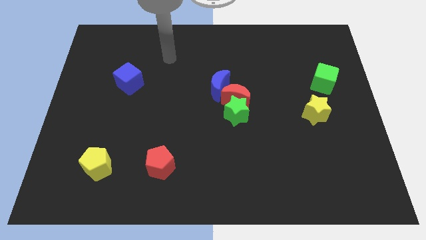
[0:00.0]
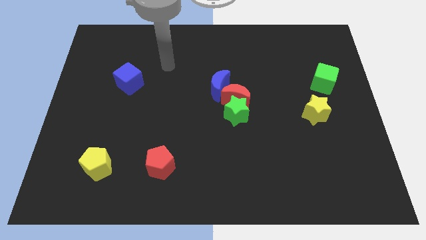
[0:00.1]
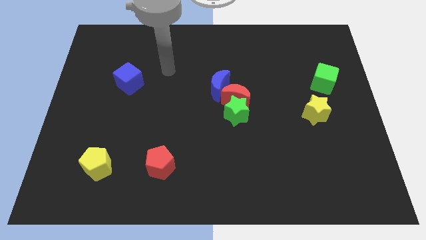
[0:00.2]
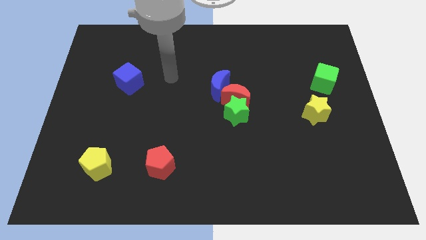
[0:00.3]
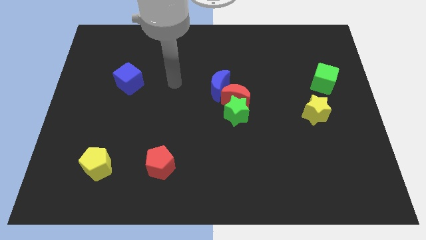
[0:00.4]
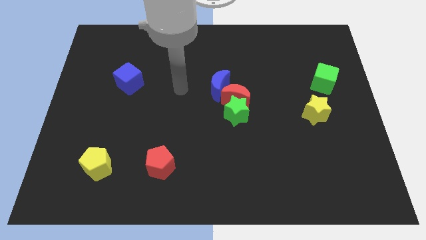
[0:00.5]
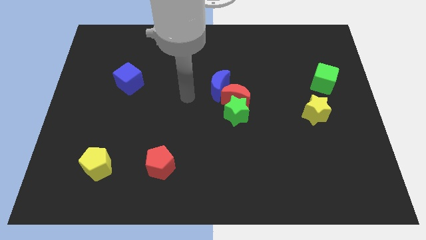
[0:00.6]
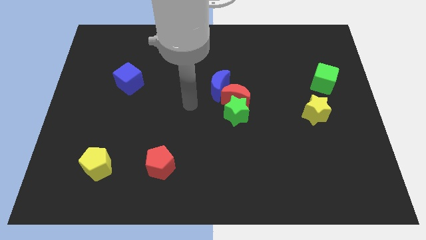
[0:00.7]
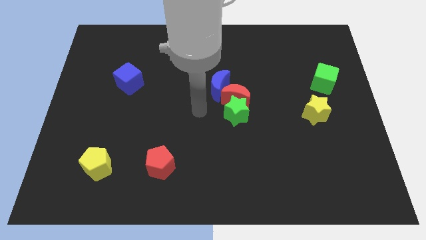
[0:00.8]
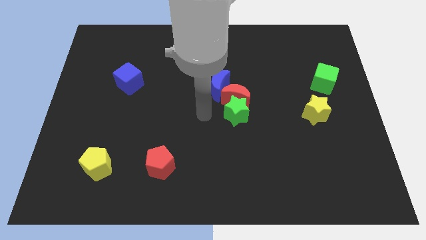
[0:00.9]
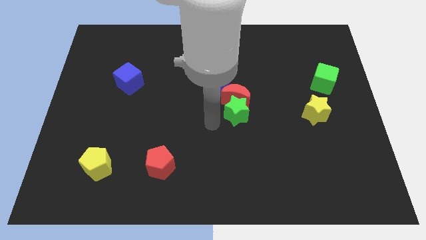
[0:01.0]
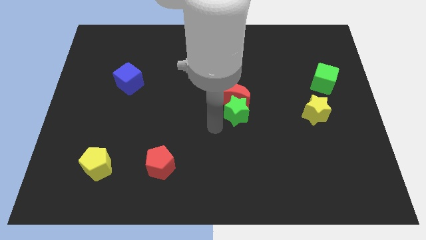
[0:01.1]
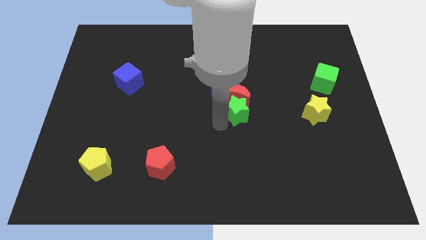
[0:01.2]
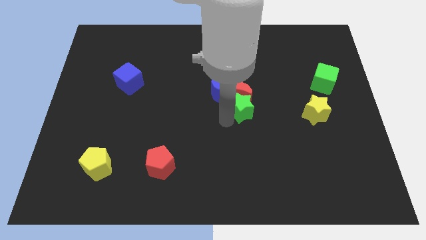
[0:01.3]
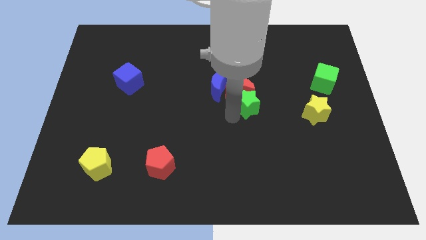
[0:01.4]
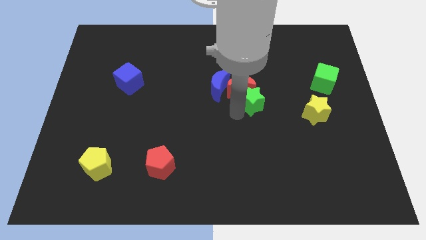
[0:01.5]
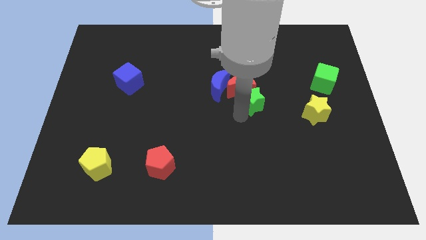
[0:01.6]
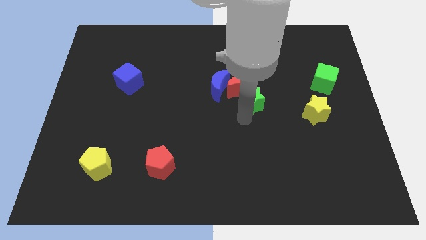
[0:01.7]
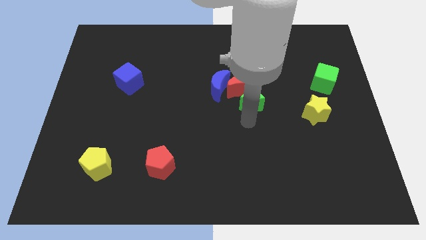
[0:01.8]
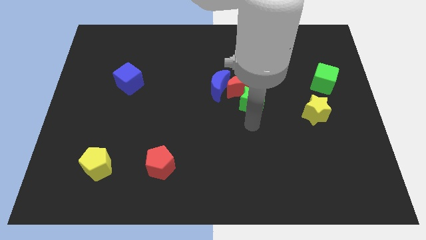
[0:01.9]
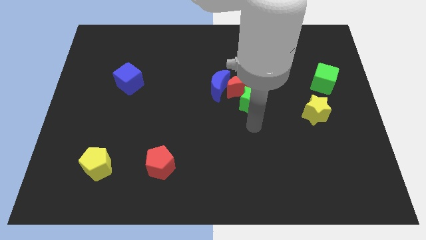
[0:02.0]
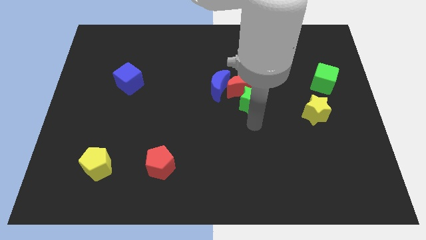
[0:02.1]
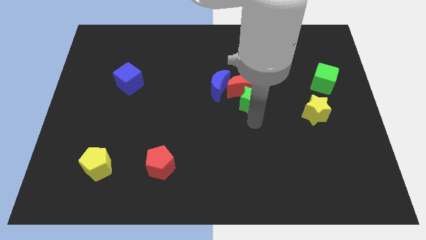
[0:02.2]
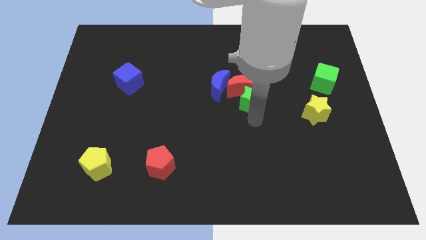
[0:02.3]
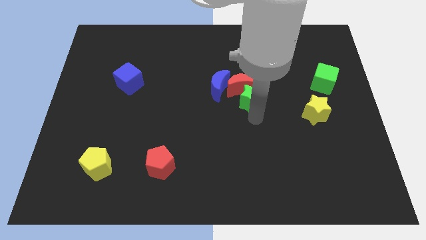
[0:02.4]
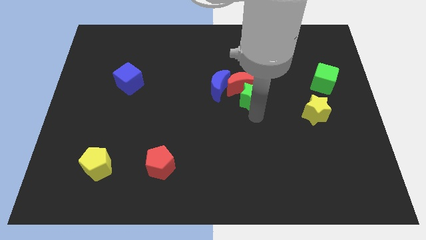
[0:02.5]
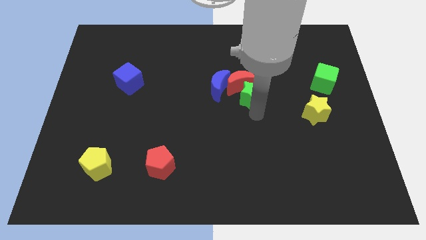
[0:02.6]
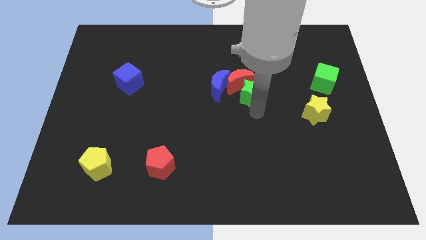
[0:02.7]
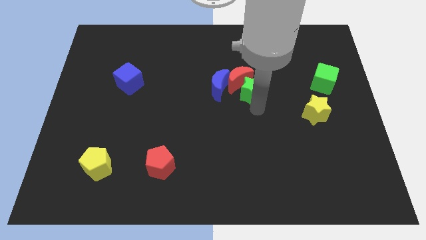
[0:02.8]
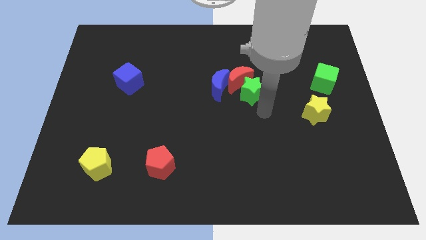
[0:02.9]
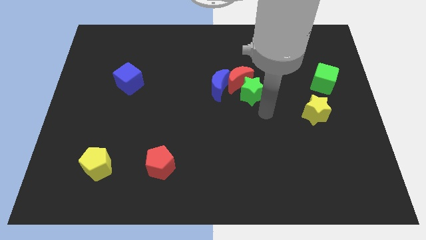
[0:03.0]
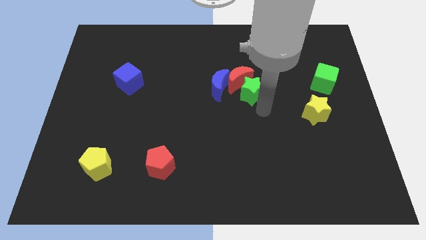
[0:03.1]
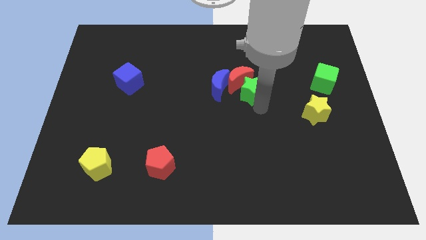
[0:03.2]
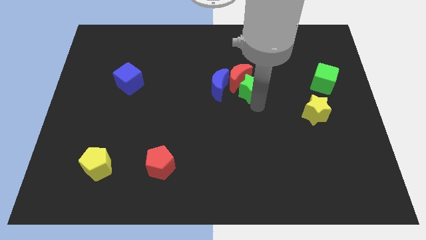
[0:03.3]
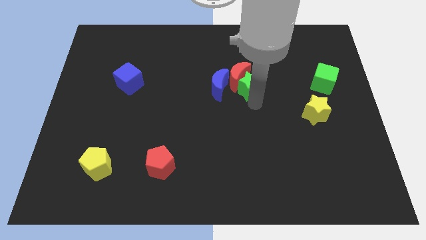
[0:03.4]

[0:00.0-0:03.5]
slide the green star a little bit up

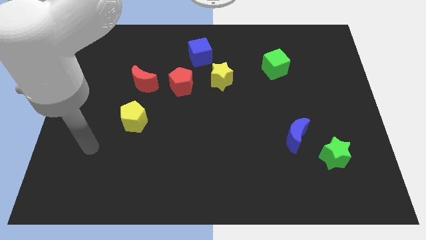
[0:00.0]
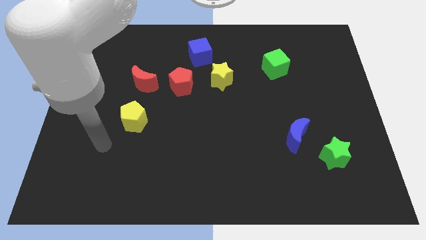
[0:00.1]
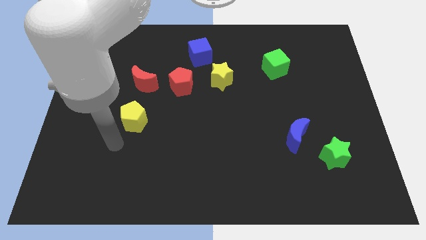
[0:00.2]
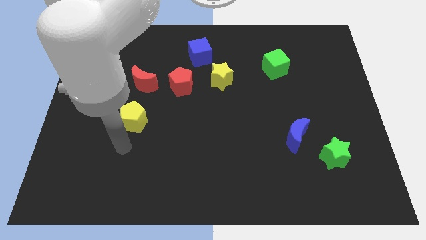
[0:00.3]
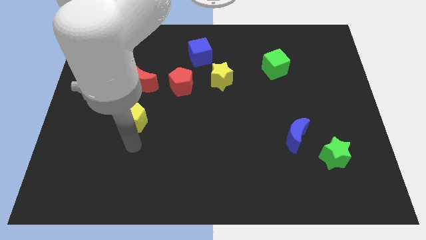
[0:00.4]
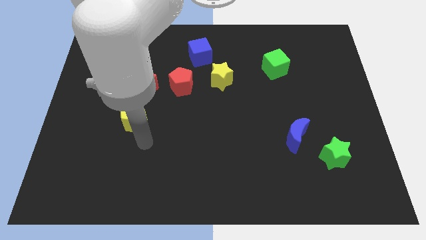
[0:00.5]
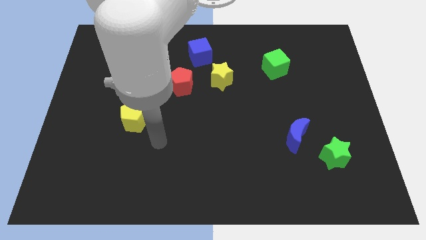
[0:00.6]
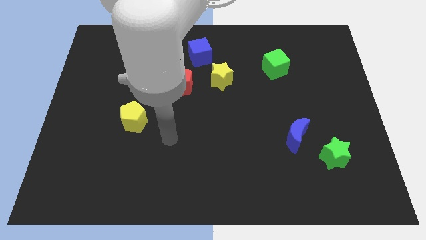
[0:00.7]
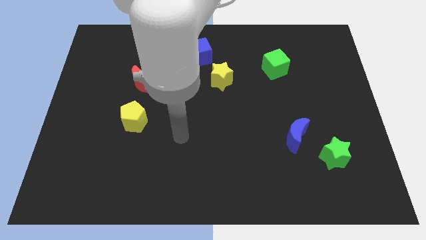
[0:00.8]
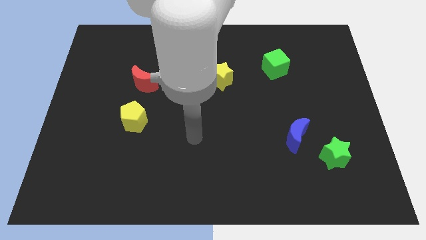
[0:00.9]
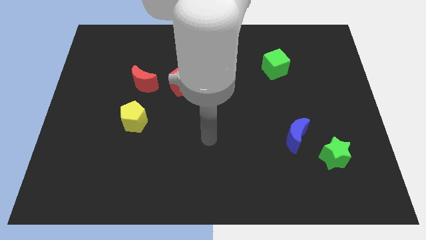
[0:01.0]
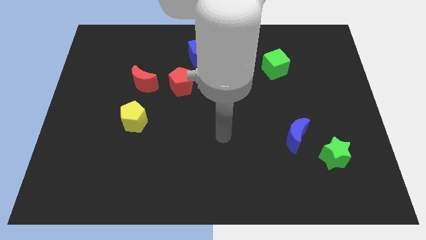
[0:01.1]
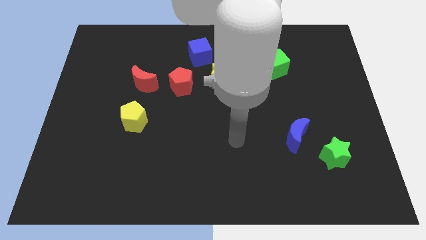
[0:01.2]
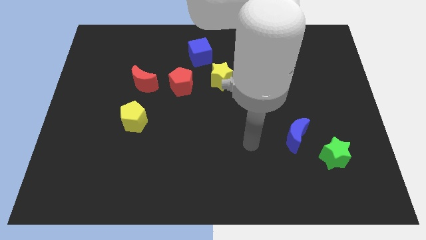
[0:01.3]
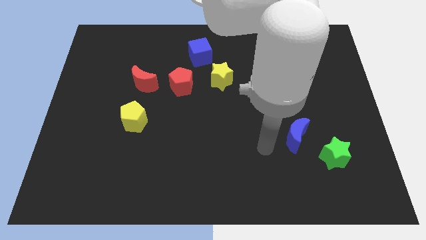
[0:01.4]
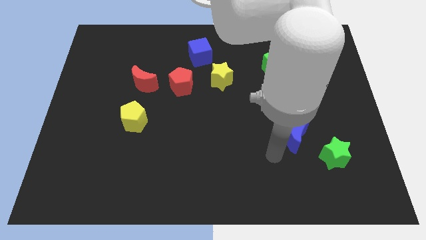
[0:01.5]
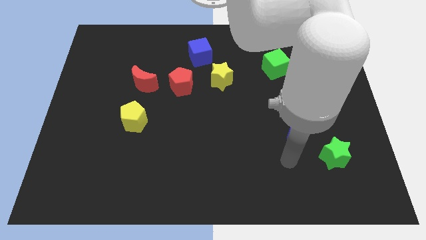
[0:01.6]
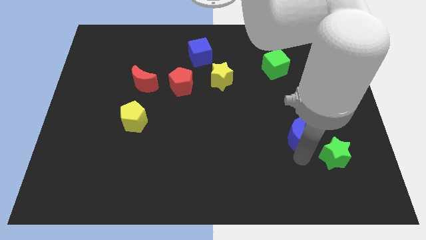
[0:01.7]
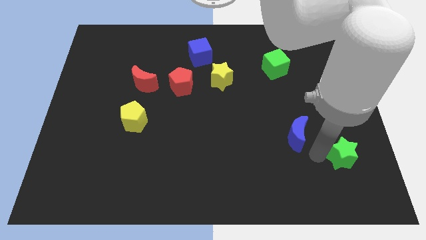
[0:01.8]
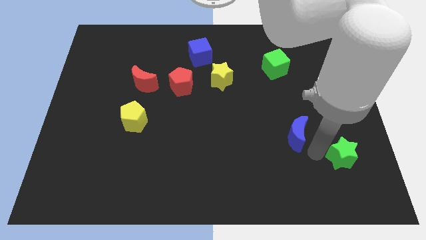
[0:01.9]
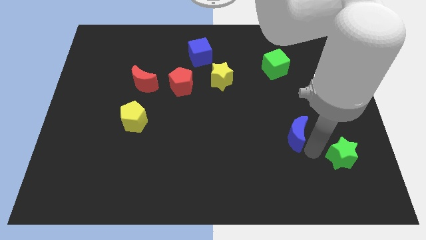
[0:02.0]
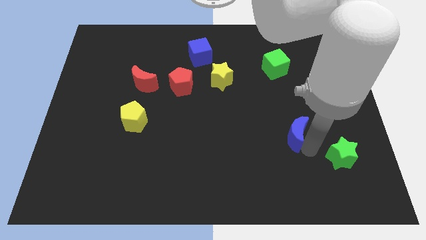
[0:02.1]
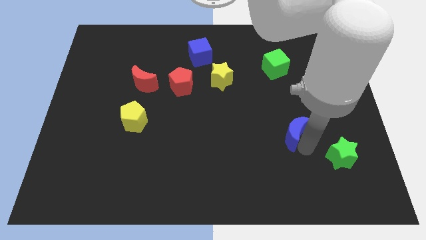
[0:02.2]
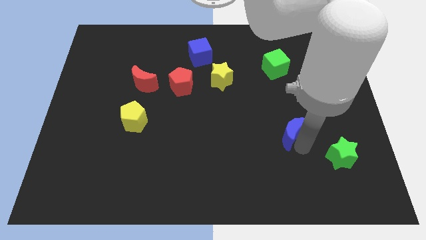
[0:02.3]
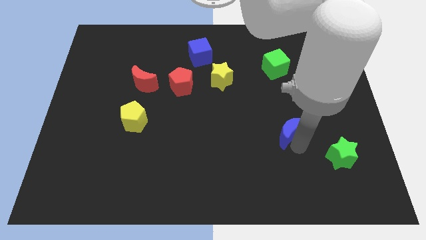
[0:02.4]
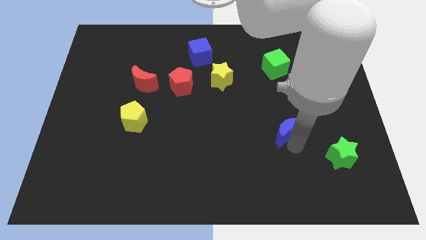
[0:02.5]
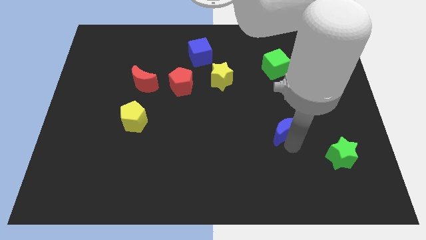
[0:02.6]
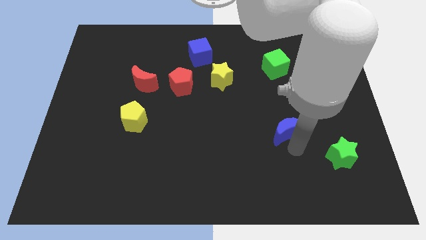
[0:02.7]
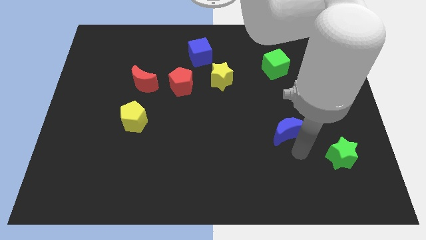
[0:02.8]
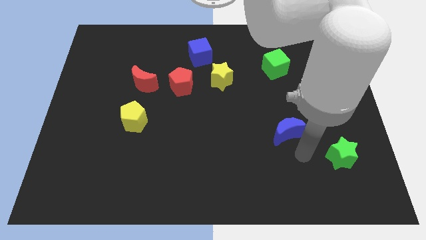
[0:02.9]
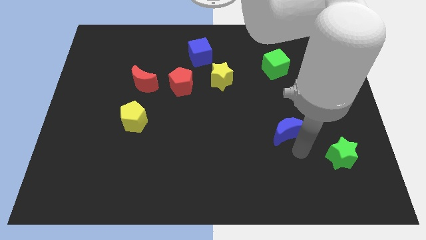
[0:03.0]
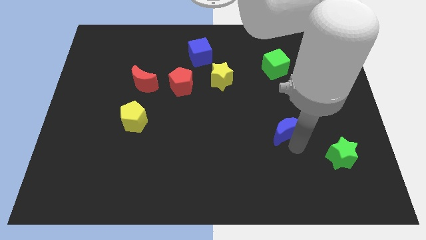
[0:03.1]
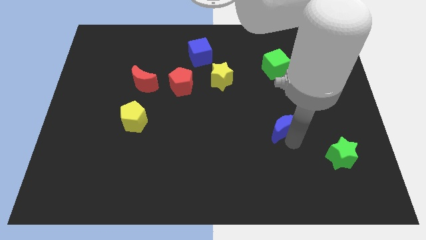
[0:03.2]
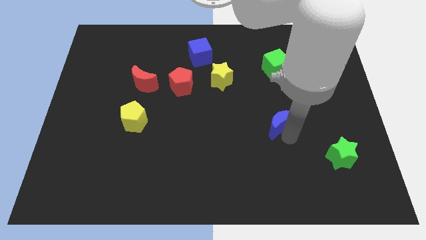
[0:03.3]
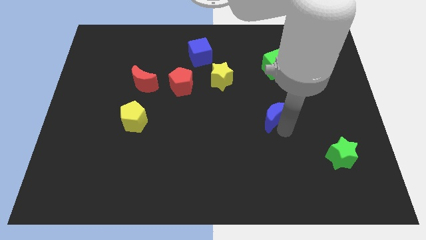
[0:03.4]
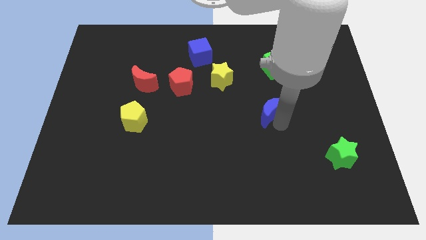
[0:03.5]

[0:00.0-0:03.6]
slightly slide the blue moon upwards and left diagonally

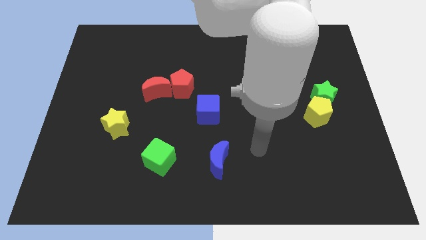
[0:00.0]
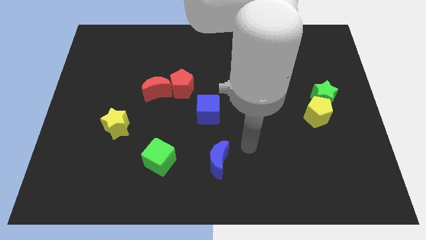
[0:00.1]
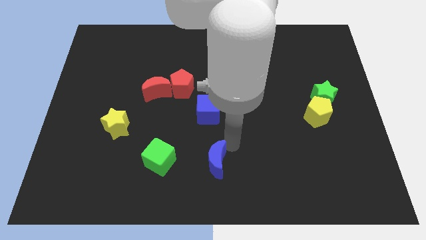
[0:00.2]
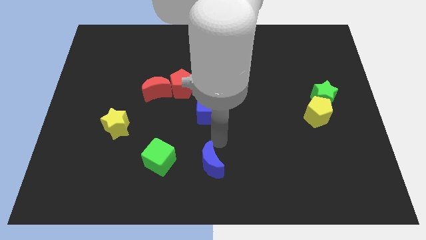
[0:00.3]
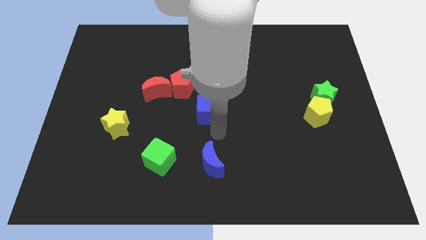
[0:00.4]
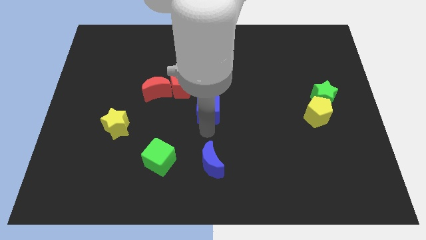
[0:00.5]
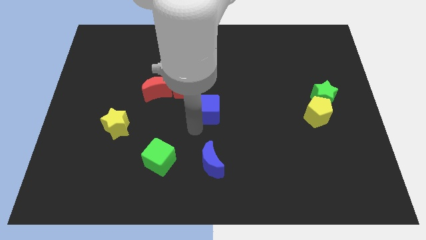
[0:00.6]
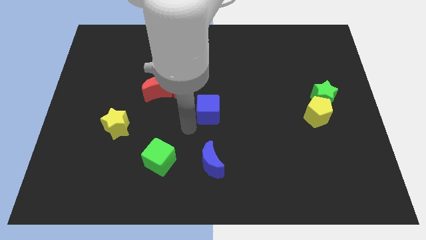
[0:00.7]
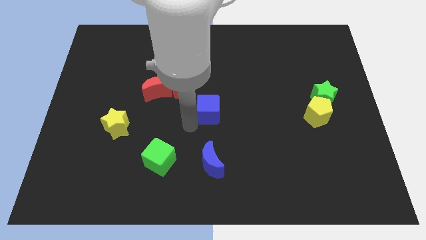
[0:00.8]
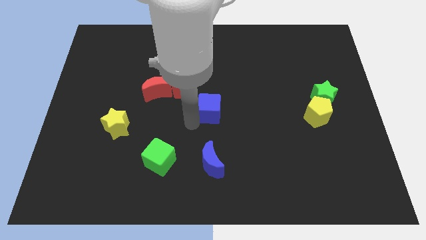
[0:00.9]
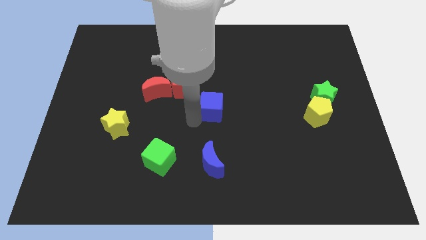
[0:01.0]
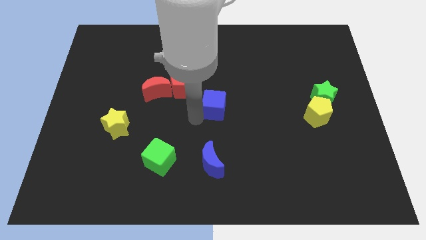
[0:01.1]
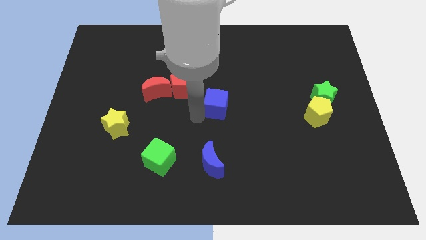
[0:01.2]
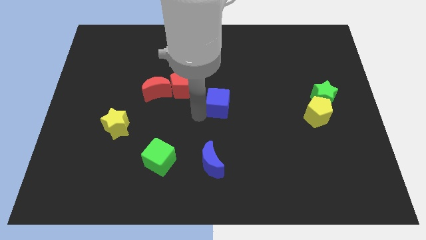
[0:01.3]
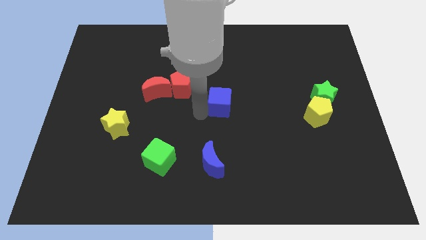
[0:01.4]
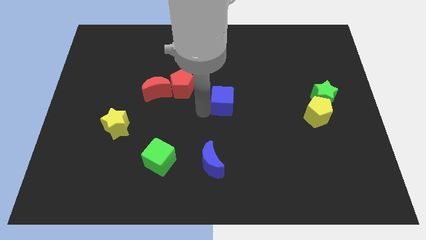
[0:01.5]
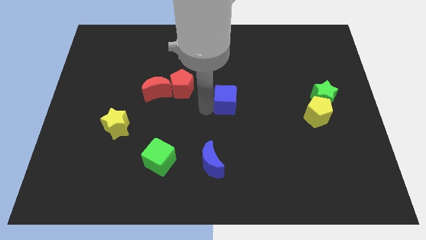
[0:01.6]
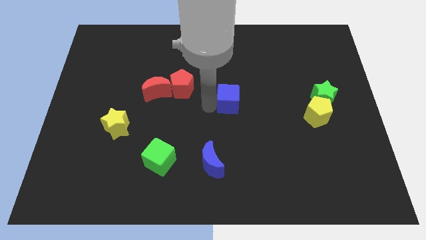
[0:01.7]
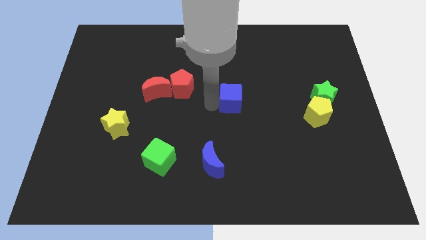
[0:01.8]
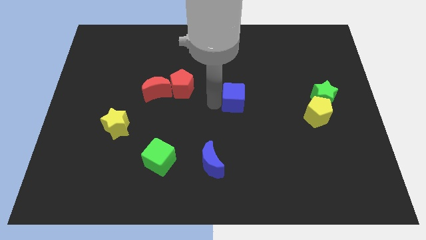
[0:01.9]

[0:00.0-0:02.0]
slightly push the blue cube up and right diagonally
